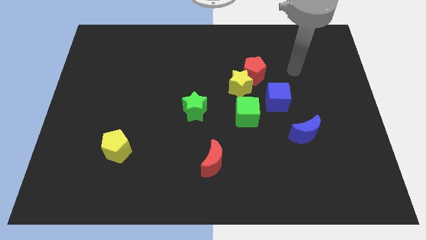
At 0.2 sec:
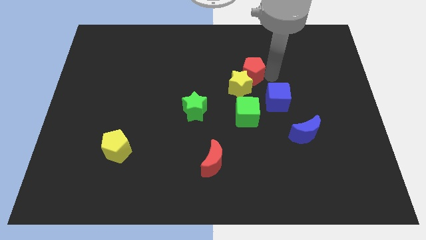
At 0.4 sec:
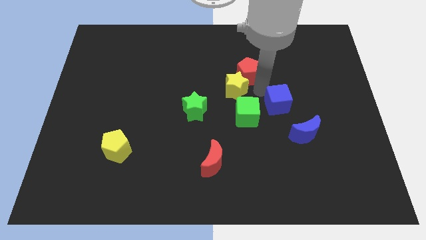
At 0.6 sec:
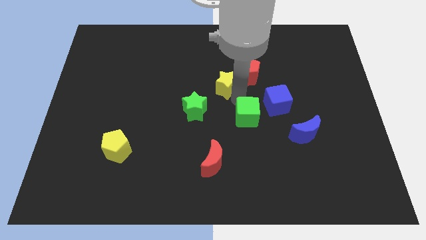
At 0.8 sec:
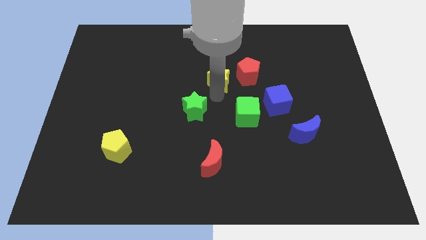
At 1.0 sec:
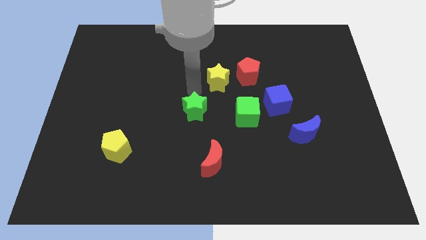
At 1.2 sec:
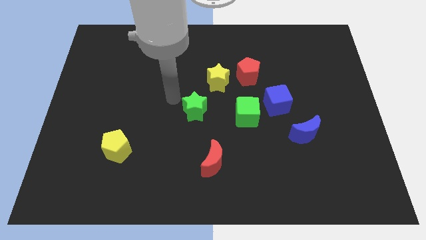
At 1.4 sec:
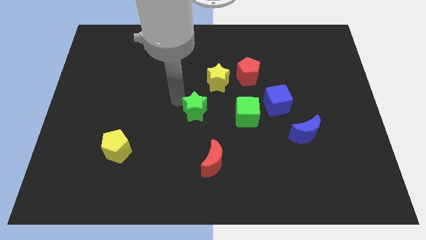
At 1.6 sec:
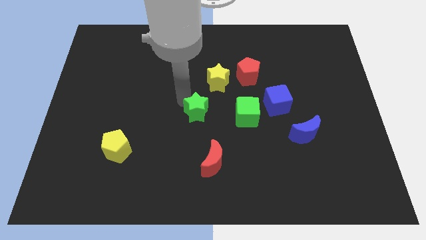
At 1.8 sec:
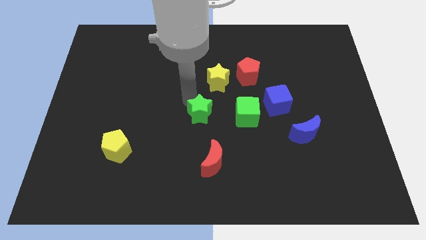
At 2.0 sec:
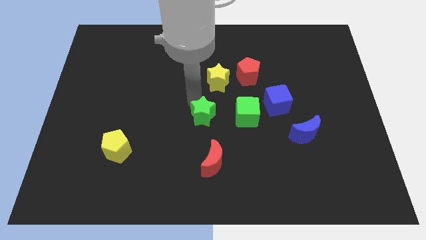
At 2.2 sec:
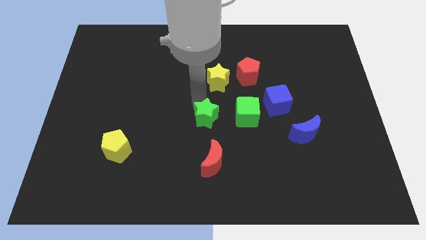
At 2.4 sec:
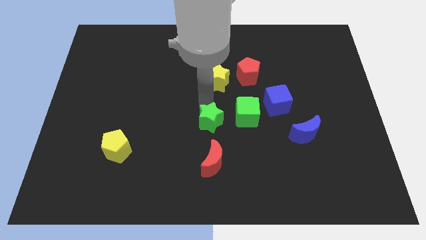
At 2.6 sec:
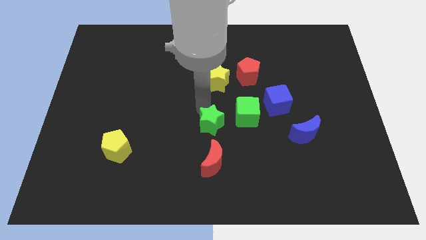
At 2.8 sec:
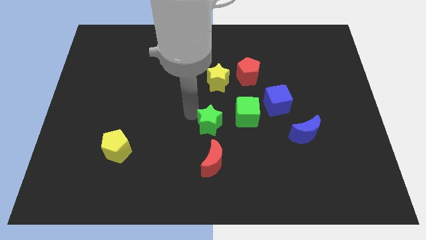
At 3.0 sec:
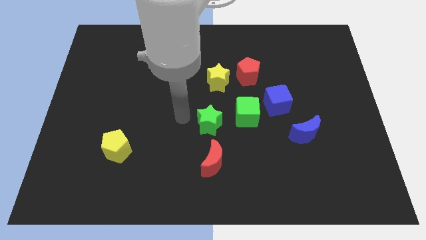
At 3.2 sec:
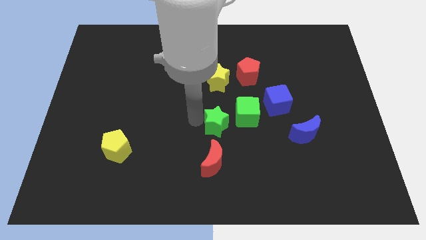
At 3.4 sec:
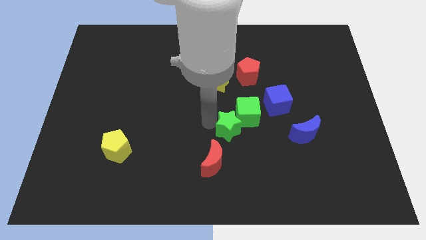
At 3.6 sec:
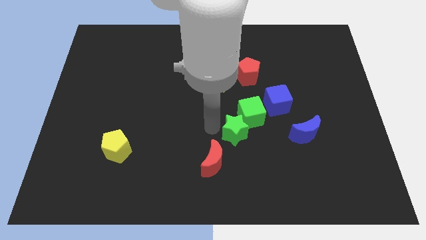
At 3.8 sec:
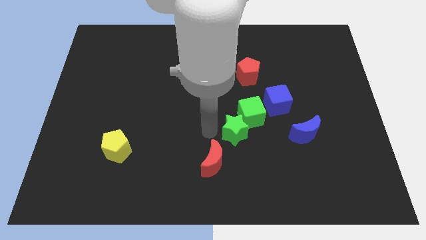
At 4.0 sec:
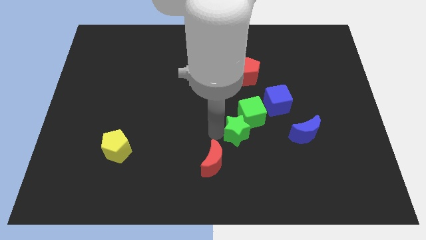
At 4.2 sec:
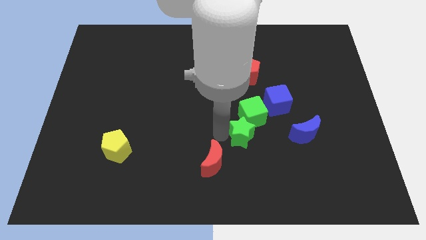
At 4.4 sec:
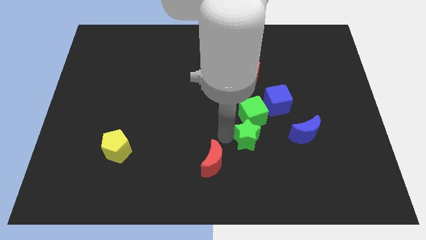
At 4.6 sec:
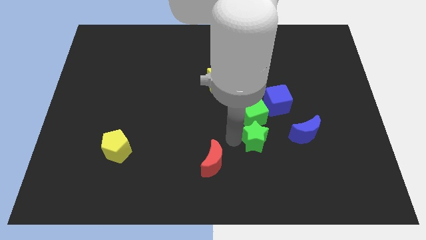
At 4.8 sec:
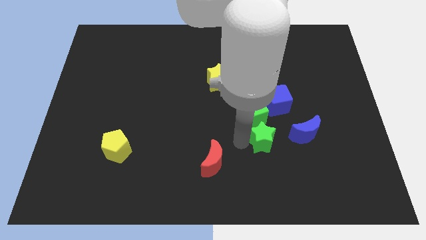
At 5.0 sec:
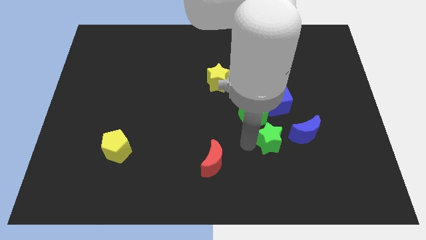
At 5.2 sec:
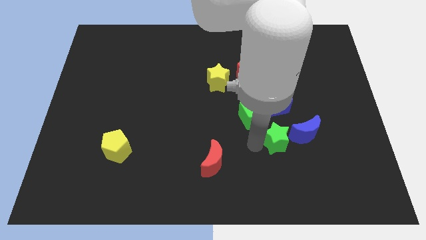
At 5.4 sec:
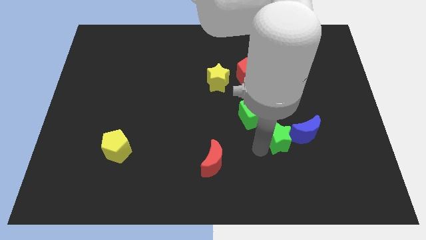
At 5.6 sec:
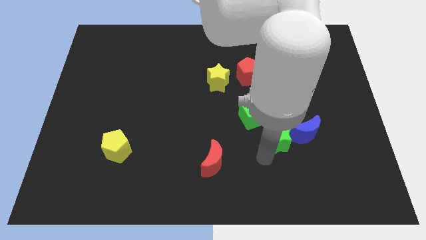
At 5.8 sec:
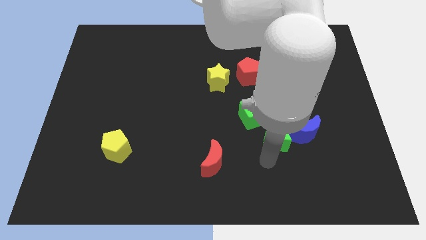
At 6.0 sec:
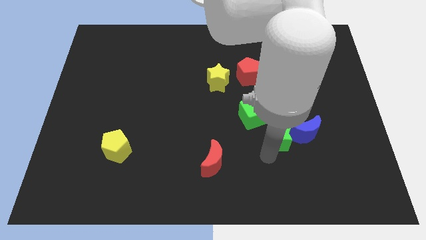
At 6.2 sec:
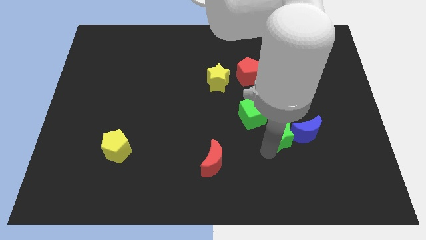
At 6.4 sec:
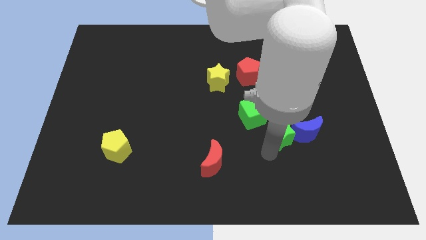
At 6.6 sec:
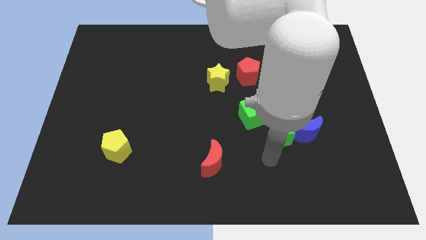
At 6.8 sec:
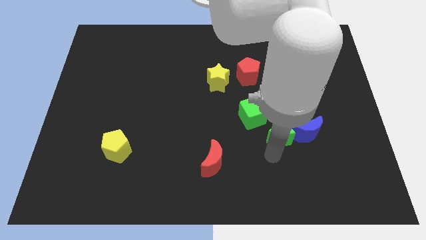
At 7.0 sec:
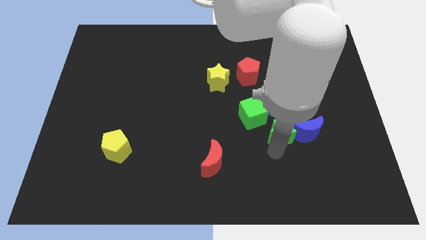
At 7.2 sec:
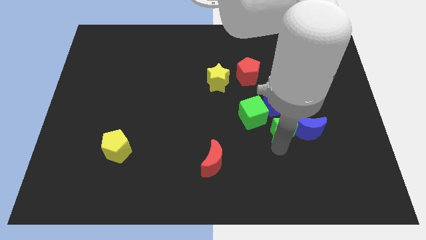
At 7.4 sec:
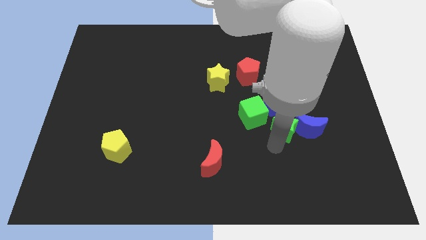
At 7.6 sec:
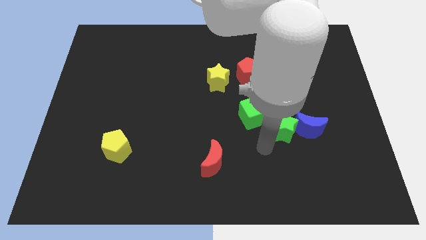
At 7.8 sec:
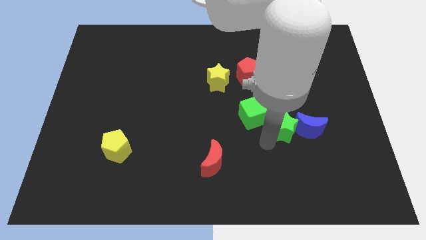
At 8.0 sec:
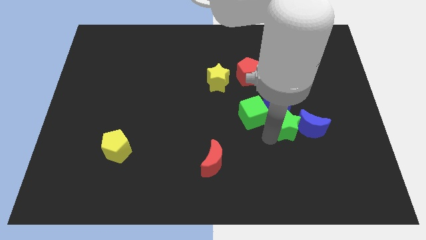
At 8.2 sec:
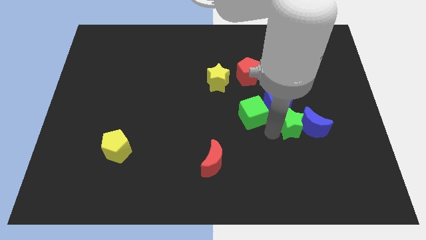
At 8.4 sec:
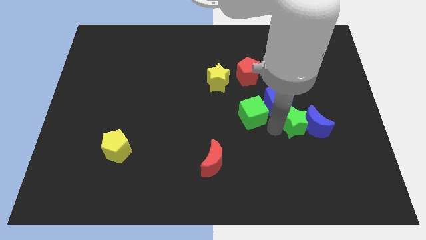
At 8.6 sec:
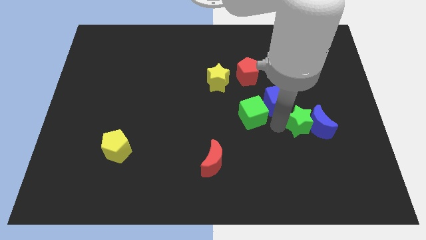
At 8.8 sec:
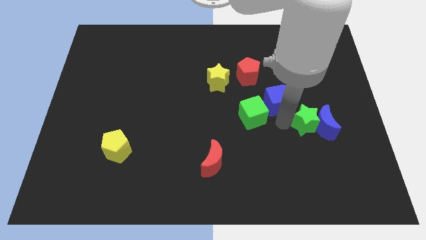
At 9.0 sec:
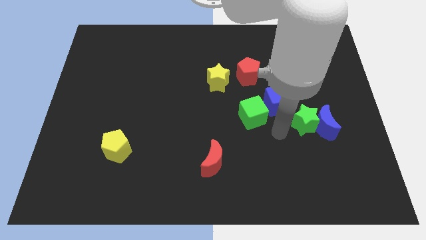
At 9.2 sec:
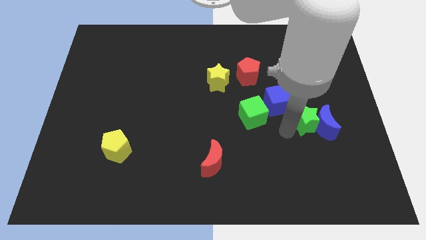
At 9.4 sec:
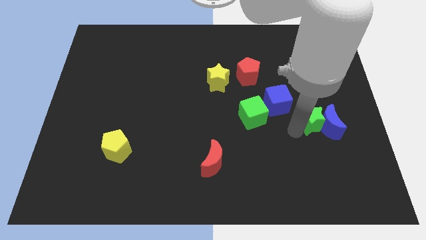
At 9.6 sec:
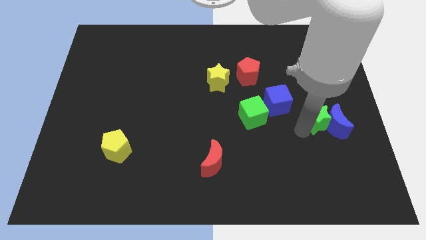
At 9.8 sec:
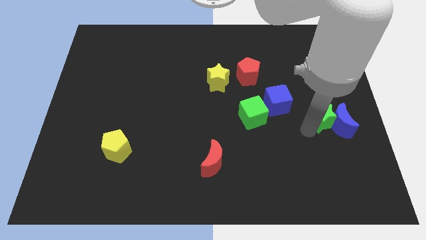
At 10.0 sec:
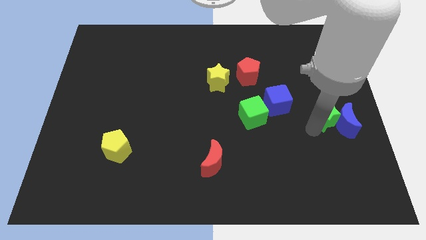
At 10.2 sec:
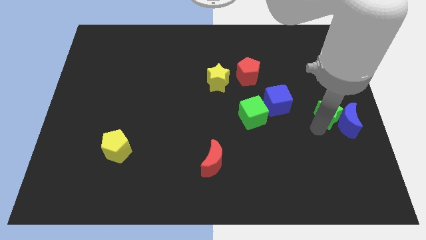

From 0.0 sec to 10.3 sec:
push the green star to the center right

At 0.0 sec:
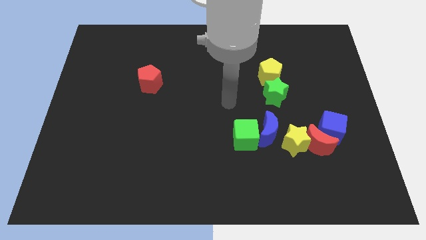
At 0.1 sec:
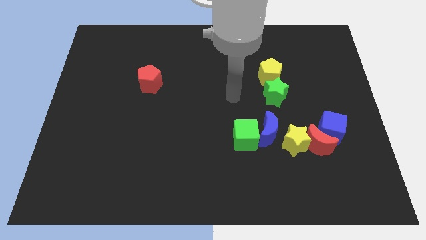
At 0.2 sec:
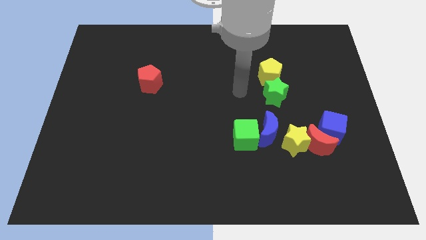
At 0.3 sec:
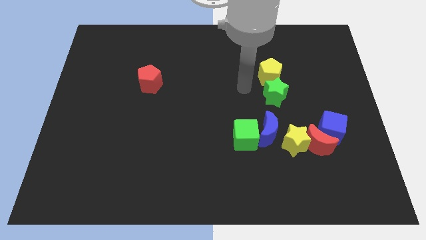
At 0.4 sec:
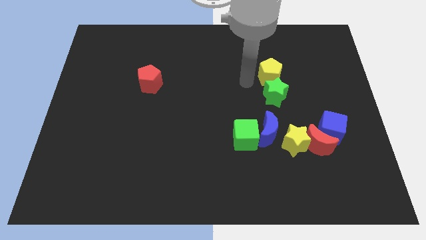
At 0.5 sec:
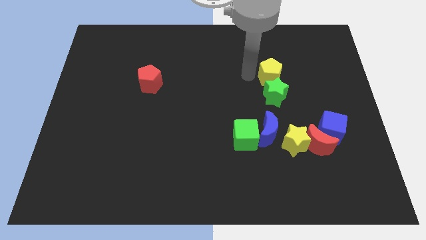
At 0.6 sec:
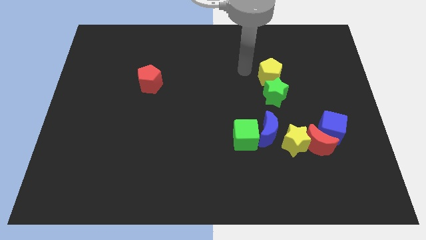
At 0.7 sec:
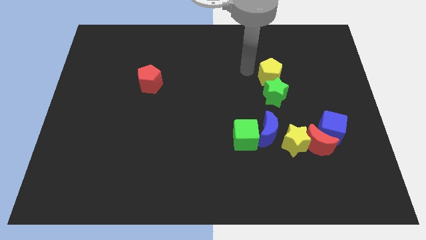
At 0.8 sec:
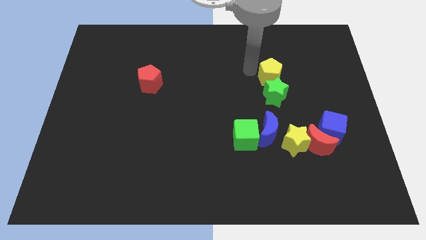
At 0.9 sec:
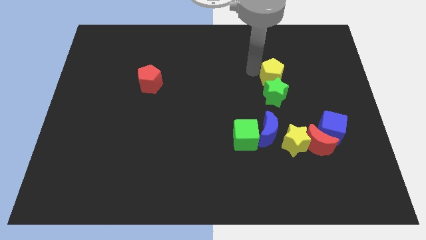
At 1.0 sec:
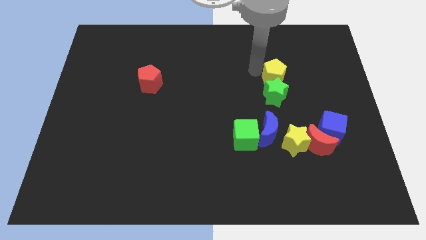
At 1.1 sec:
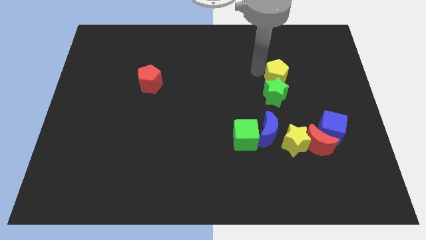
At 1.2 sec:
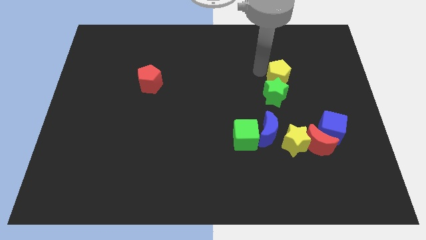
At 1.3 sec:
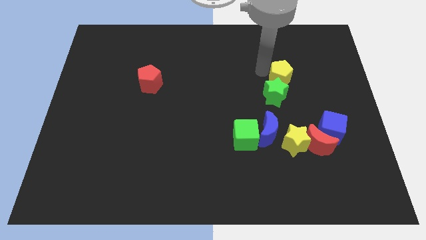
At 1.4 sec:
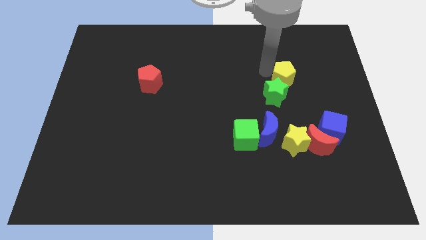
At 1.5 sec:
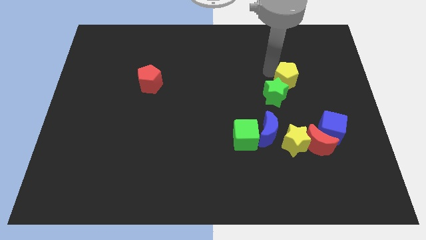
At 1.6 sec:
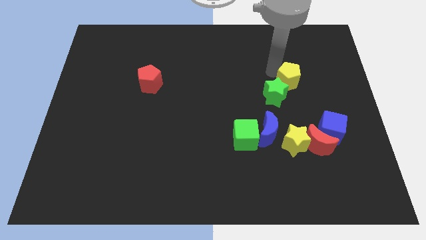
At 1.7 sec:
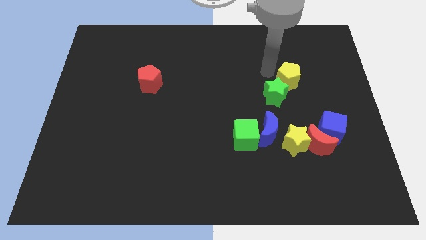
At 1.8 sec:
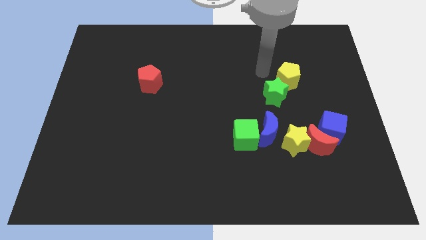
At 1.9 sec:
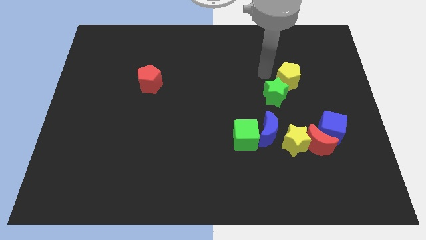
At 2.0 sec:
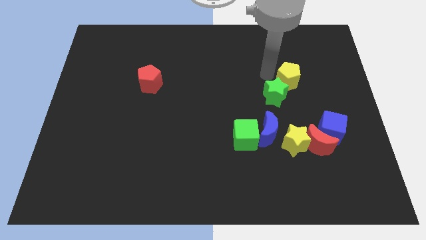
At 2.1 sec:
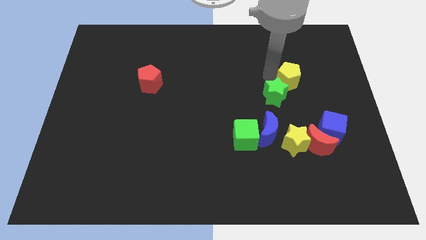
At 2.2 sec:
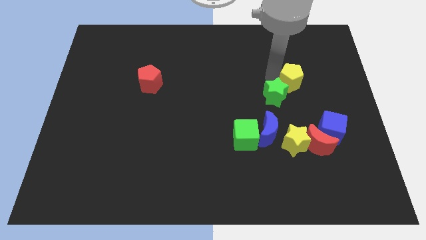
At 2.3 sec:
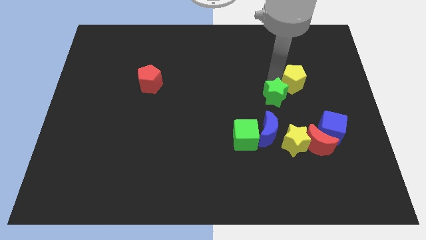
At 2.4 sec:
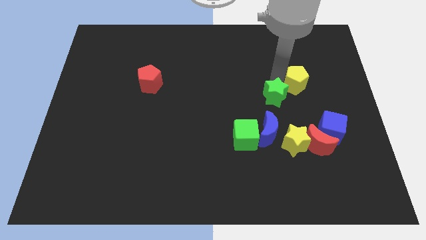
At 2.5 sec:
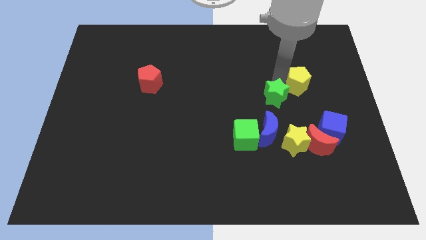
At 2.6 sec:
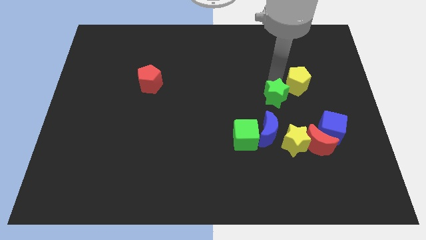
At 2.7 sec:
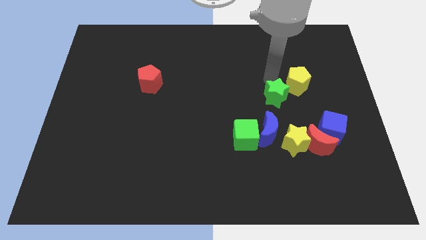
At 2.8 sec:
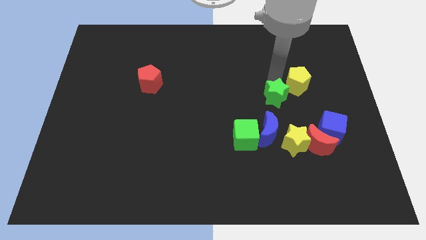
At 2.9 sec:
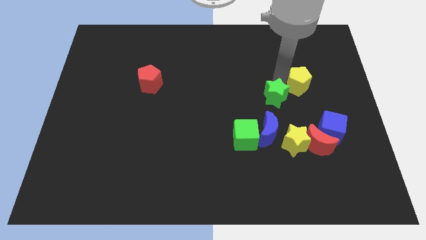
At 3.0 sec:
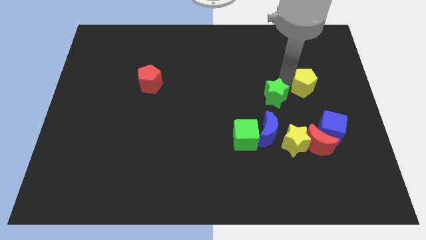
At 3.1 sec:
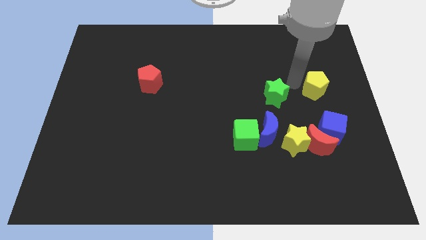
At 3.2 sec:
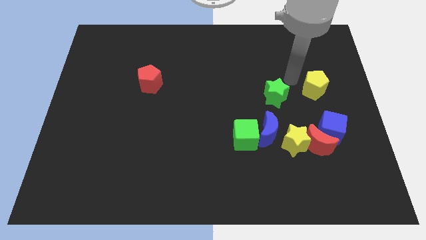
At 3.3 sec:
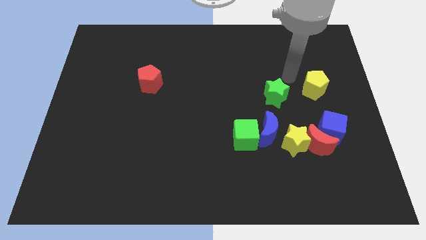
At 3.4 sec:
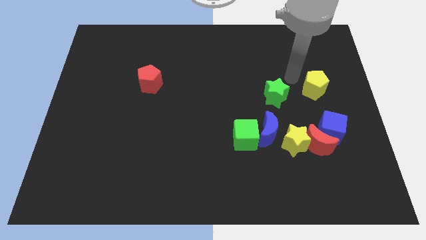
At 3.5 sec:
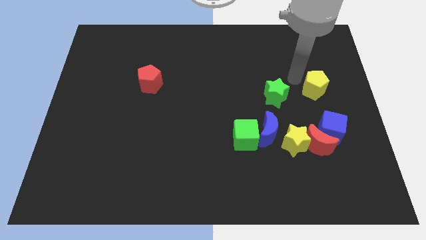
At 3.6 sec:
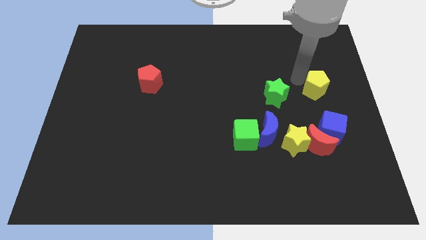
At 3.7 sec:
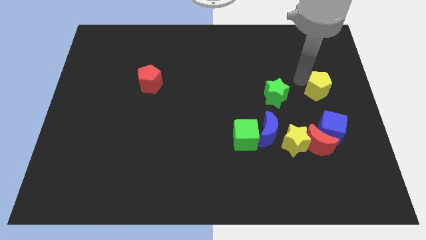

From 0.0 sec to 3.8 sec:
slide the yellow pentagon to the right side of the board
